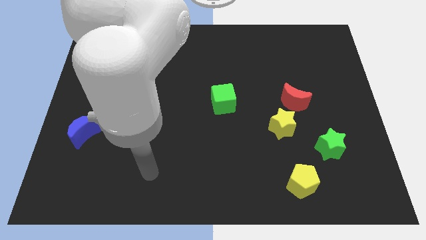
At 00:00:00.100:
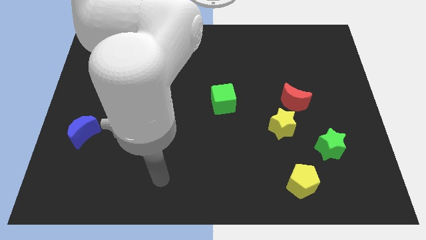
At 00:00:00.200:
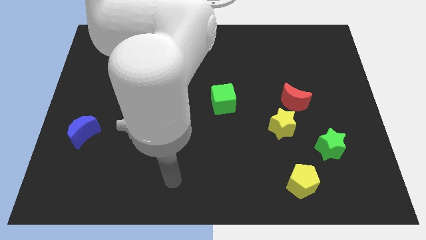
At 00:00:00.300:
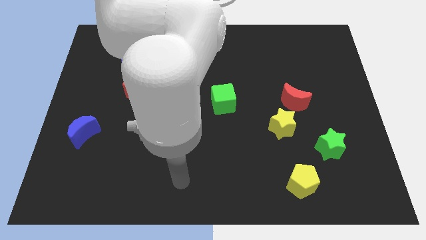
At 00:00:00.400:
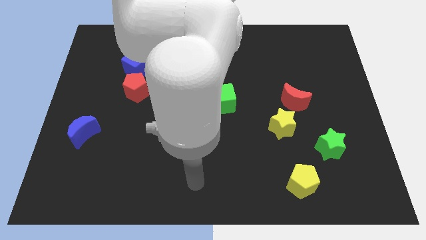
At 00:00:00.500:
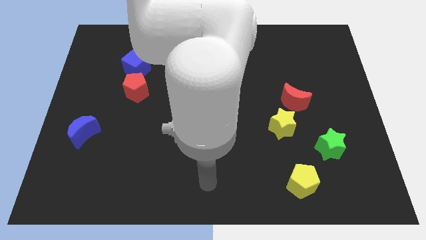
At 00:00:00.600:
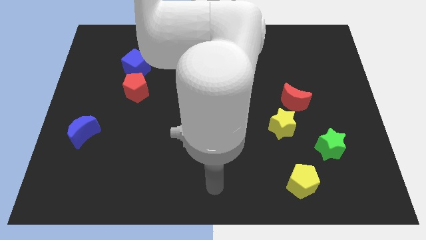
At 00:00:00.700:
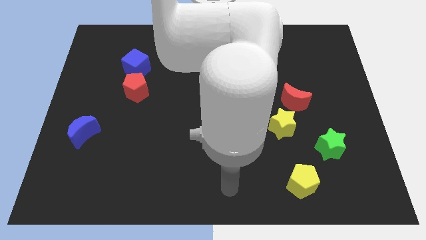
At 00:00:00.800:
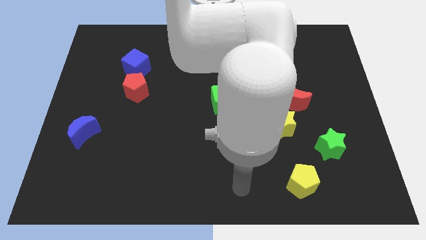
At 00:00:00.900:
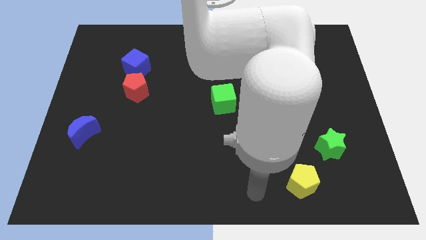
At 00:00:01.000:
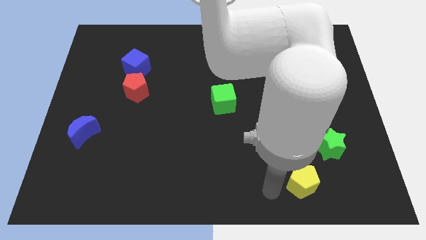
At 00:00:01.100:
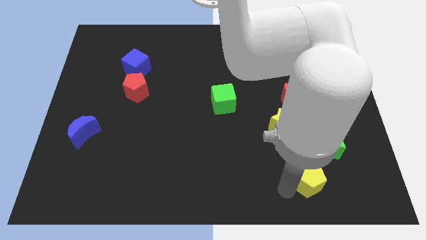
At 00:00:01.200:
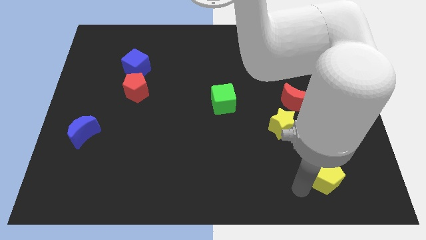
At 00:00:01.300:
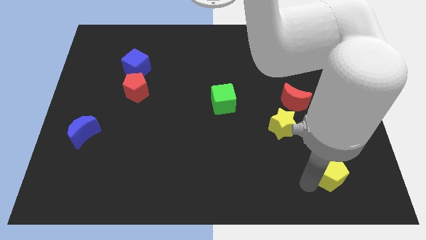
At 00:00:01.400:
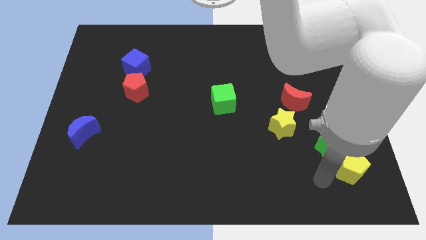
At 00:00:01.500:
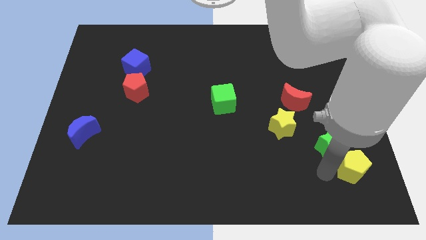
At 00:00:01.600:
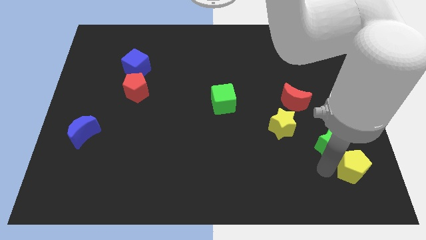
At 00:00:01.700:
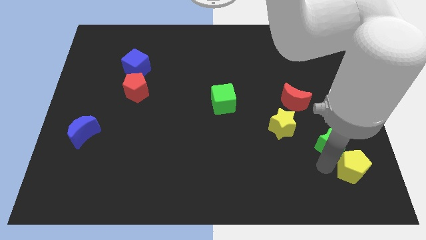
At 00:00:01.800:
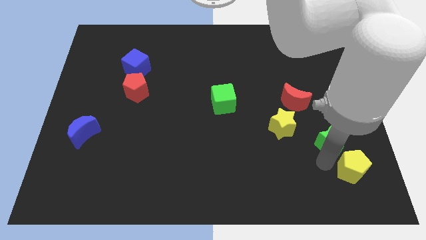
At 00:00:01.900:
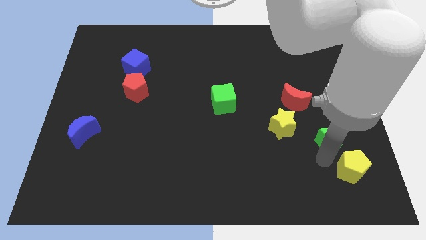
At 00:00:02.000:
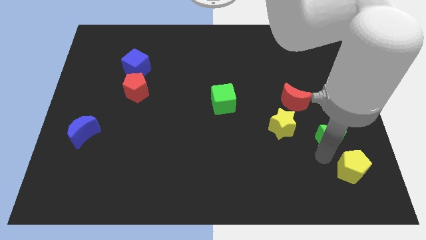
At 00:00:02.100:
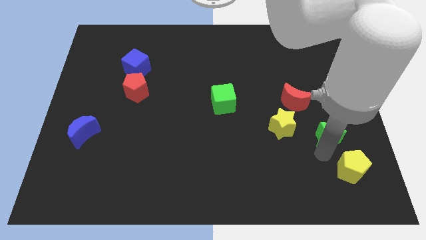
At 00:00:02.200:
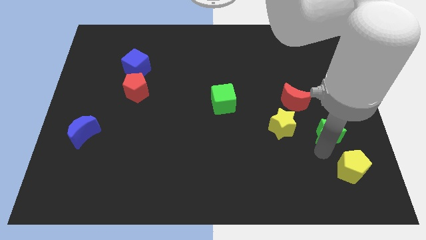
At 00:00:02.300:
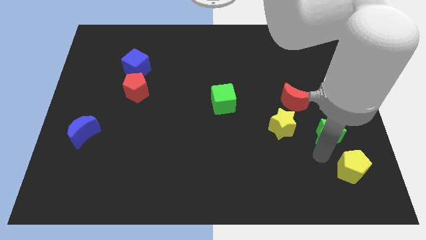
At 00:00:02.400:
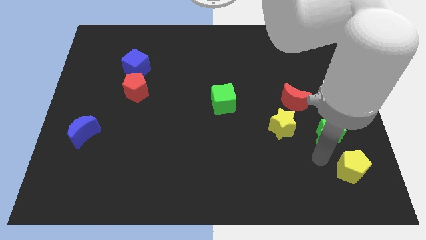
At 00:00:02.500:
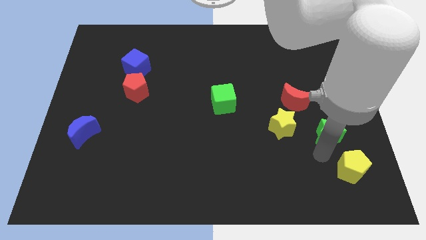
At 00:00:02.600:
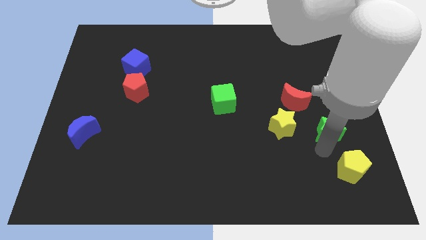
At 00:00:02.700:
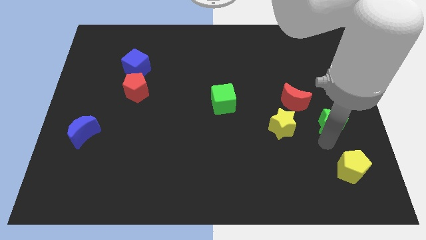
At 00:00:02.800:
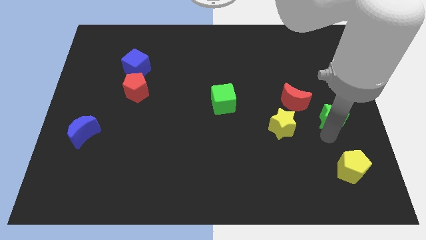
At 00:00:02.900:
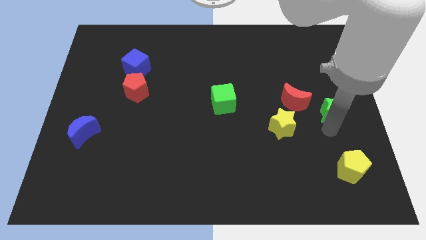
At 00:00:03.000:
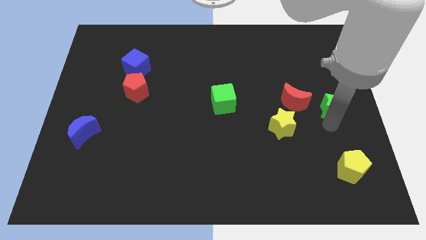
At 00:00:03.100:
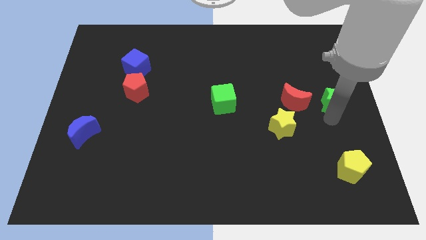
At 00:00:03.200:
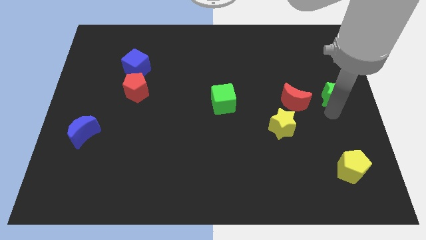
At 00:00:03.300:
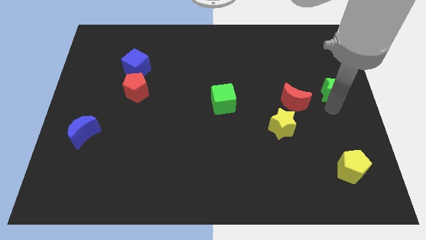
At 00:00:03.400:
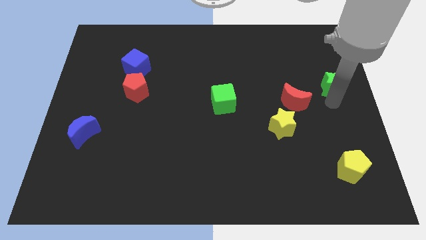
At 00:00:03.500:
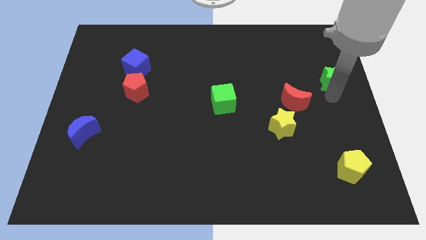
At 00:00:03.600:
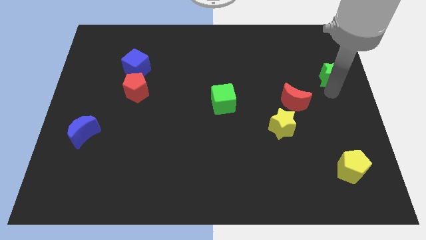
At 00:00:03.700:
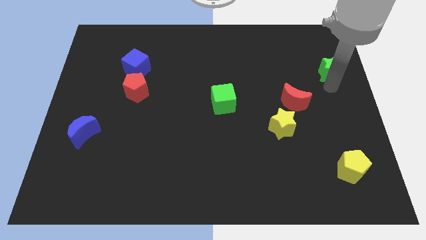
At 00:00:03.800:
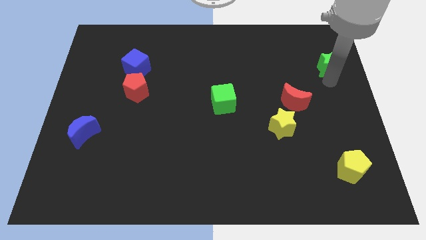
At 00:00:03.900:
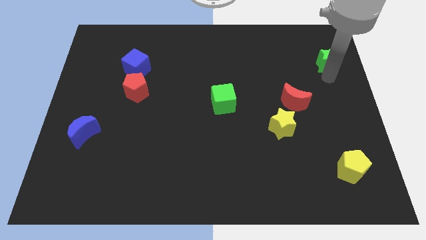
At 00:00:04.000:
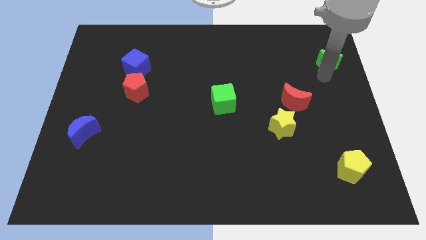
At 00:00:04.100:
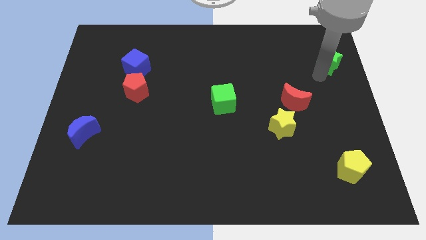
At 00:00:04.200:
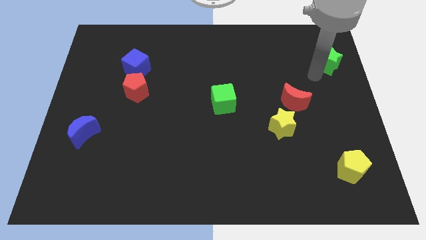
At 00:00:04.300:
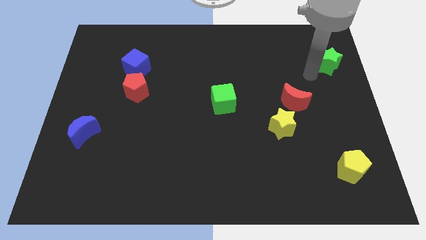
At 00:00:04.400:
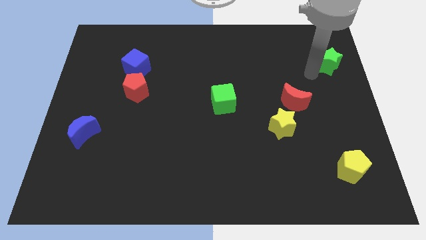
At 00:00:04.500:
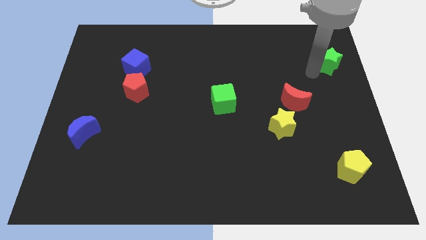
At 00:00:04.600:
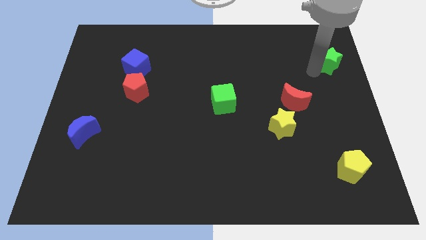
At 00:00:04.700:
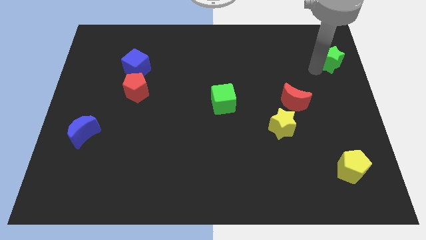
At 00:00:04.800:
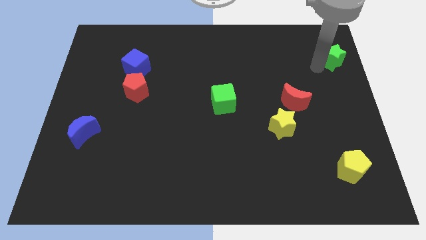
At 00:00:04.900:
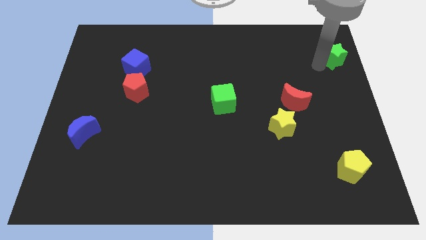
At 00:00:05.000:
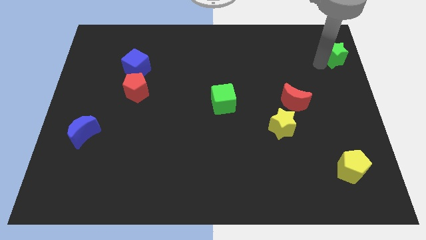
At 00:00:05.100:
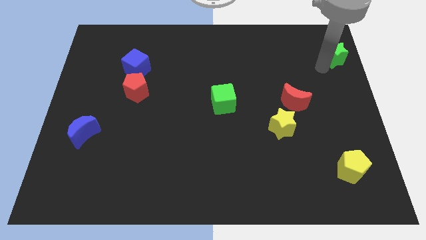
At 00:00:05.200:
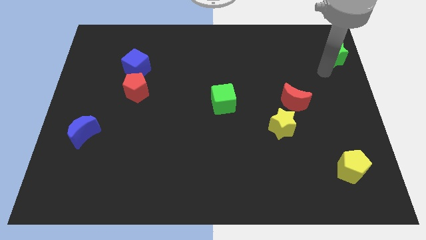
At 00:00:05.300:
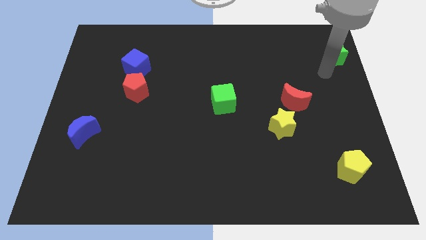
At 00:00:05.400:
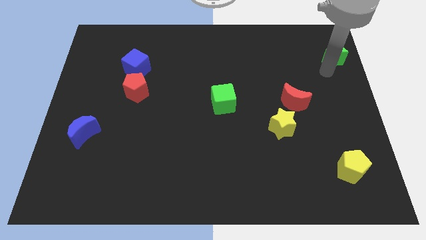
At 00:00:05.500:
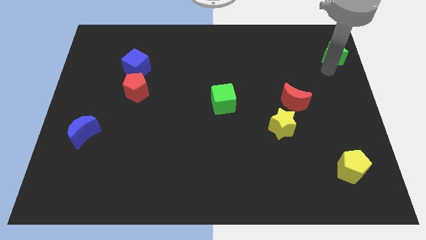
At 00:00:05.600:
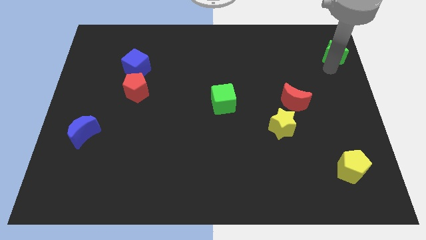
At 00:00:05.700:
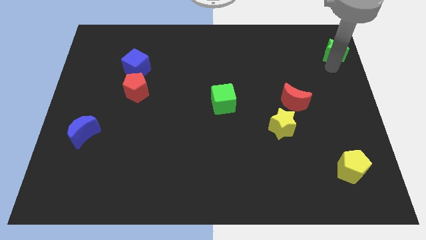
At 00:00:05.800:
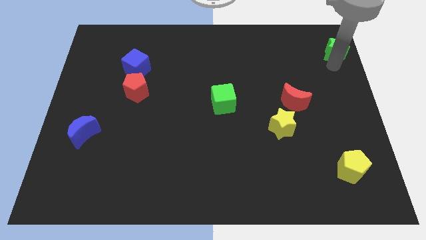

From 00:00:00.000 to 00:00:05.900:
move the green star to the upper right corner

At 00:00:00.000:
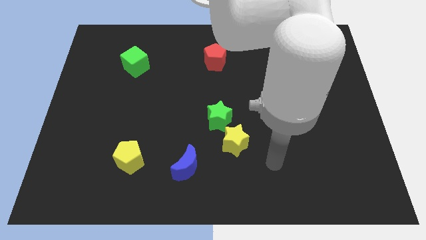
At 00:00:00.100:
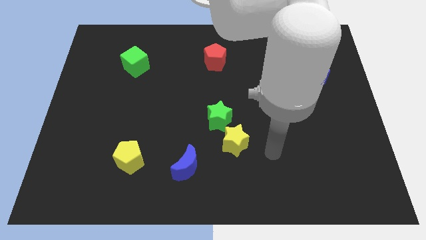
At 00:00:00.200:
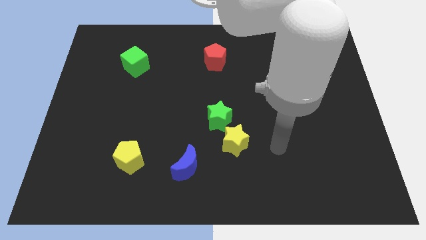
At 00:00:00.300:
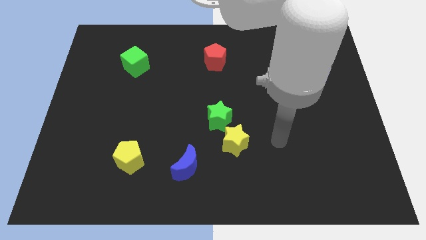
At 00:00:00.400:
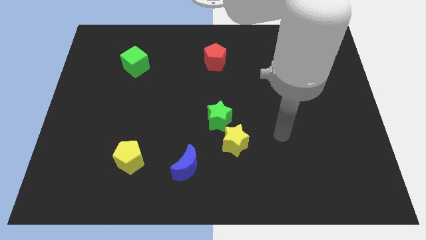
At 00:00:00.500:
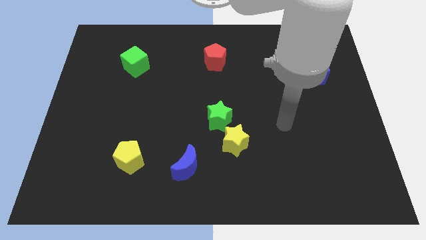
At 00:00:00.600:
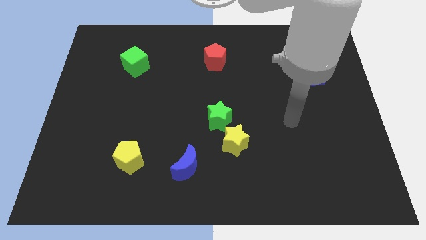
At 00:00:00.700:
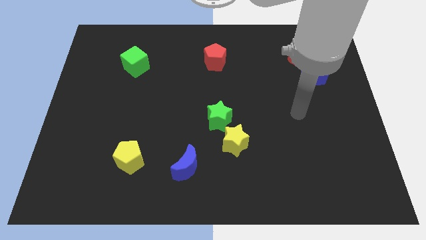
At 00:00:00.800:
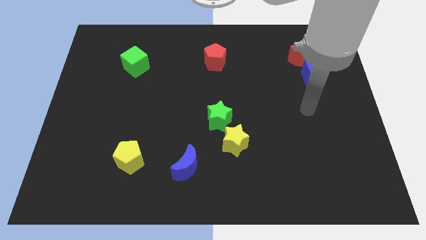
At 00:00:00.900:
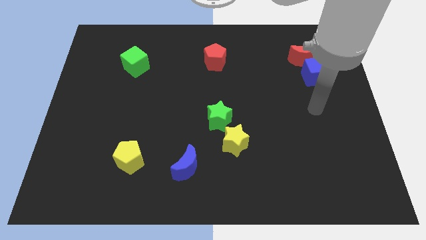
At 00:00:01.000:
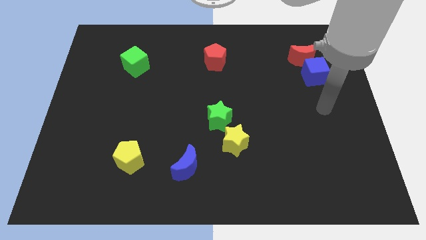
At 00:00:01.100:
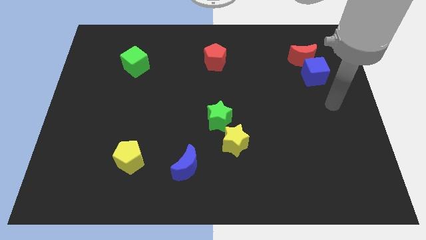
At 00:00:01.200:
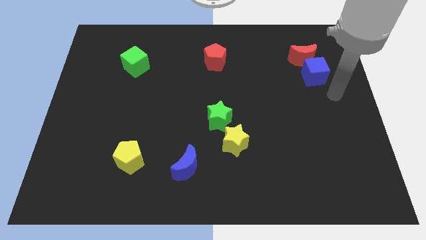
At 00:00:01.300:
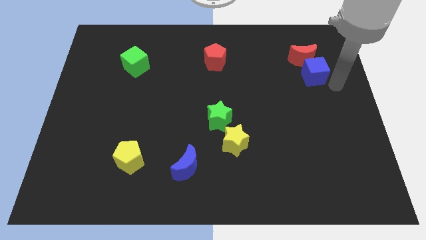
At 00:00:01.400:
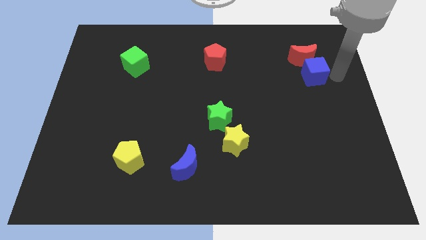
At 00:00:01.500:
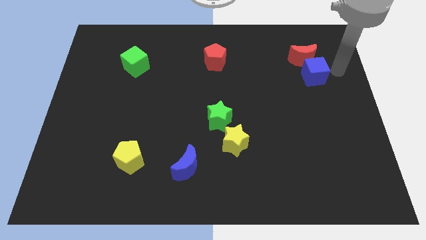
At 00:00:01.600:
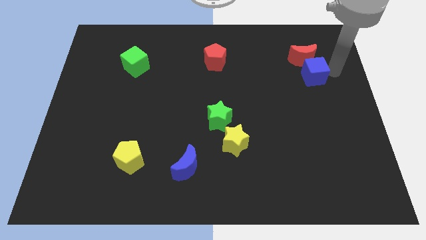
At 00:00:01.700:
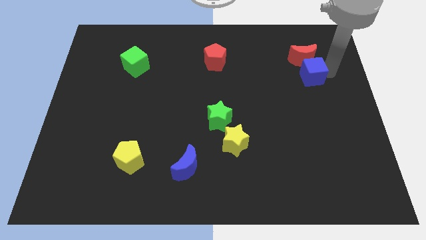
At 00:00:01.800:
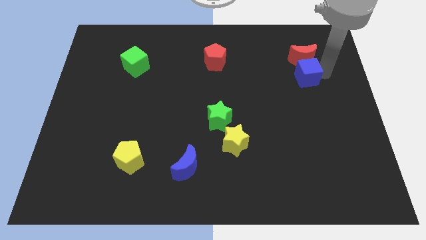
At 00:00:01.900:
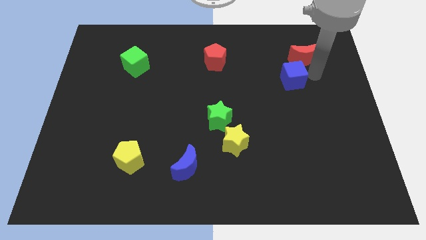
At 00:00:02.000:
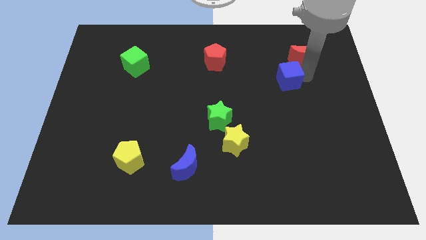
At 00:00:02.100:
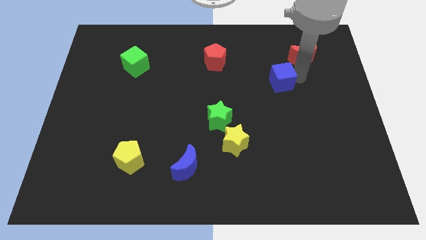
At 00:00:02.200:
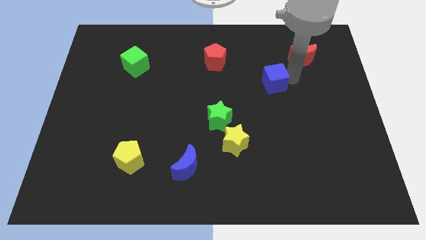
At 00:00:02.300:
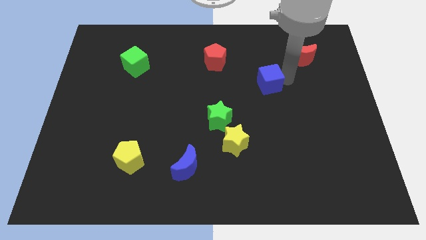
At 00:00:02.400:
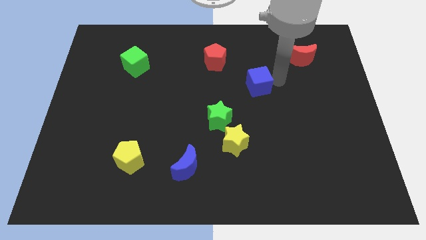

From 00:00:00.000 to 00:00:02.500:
move the blue cube to the middle of the board
